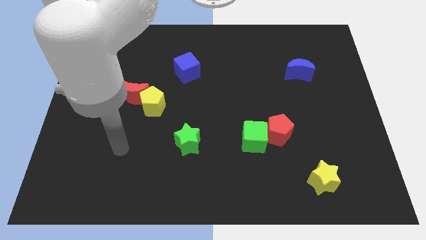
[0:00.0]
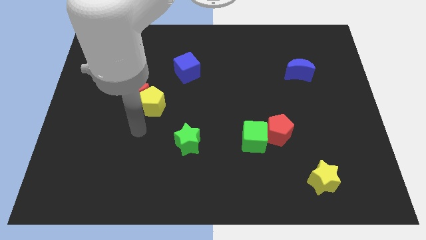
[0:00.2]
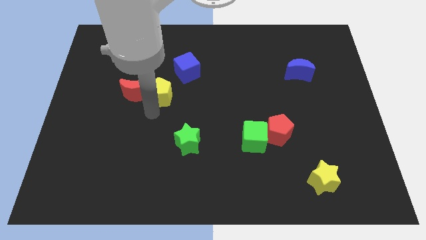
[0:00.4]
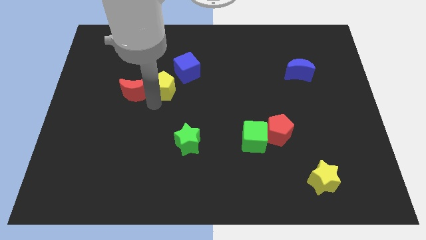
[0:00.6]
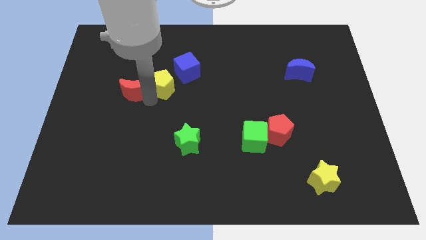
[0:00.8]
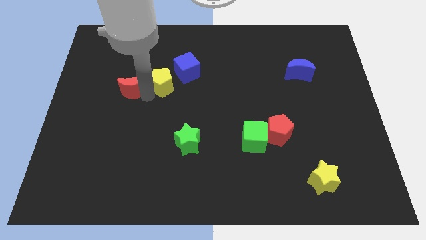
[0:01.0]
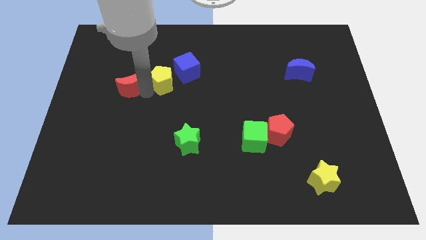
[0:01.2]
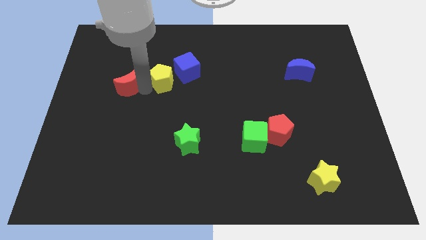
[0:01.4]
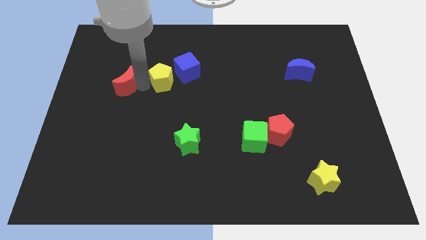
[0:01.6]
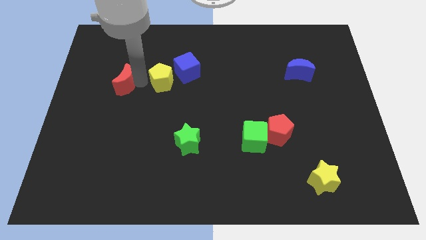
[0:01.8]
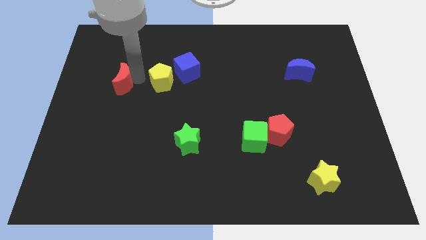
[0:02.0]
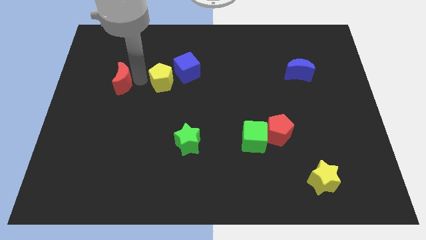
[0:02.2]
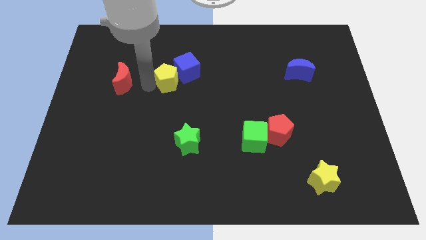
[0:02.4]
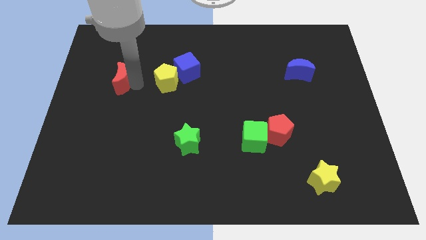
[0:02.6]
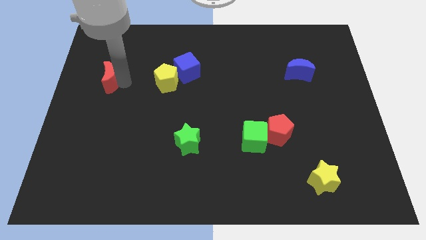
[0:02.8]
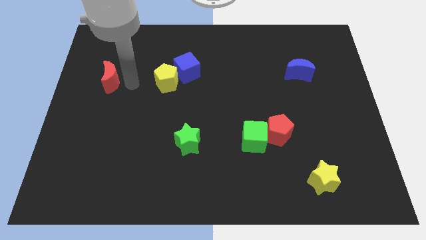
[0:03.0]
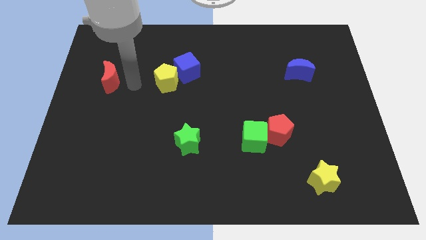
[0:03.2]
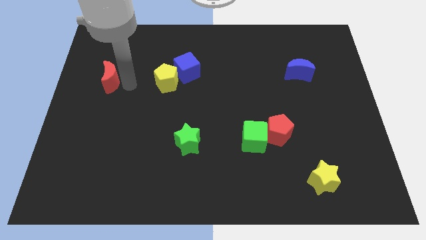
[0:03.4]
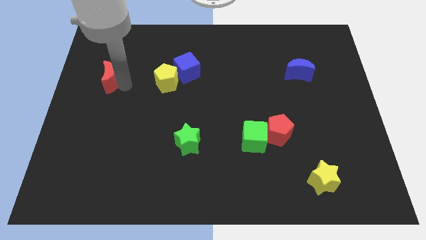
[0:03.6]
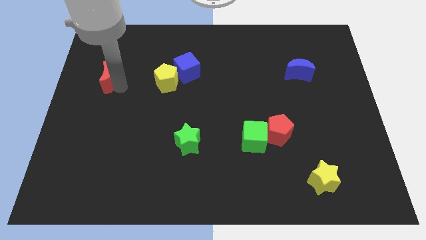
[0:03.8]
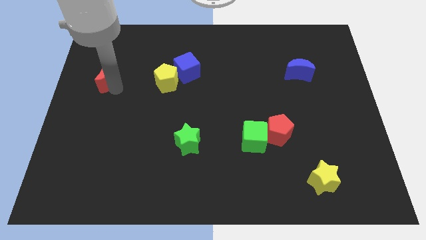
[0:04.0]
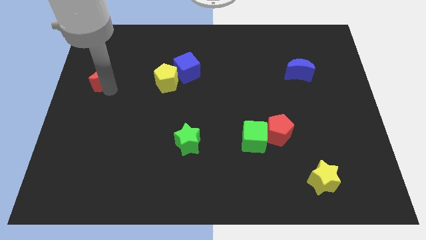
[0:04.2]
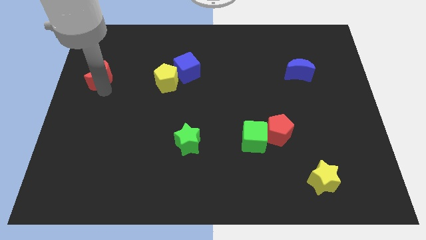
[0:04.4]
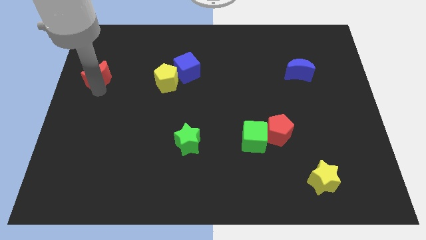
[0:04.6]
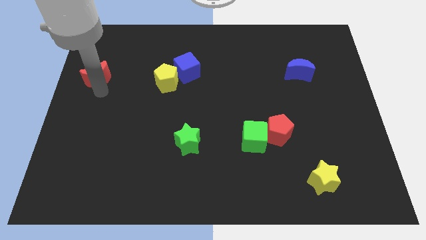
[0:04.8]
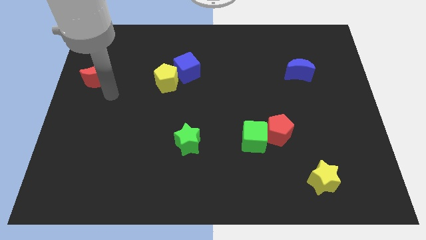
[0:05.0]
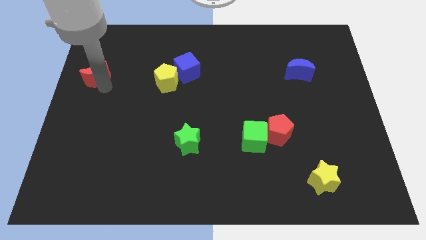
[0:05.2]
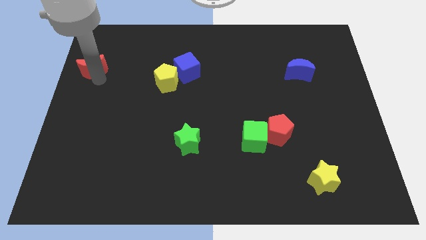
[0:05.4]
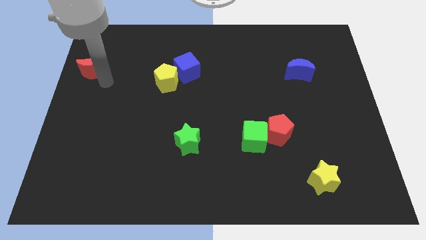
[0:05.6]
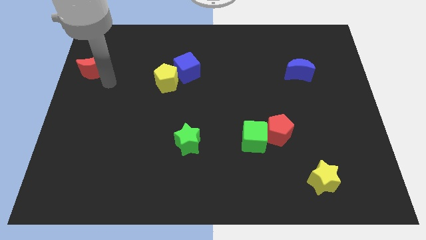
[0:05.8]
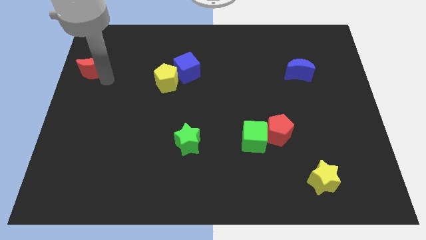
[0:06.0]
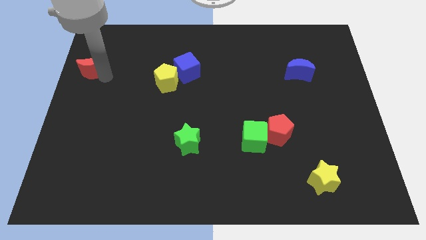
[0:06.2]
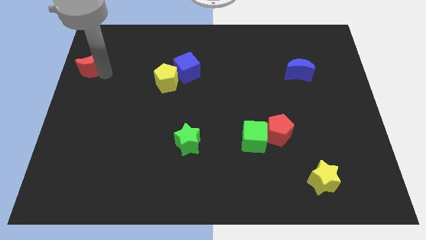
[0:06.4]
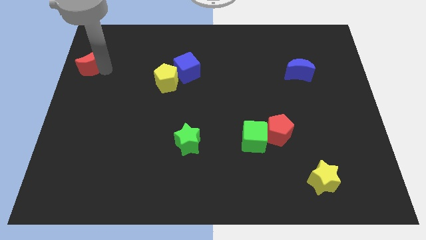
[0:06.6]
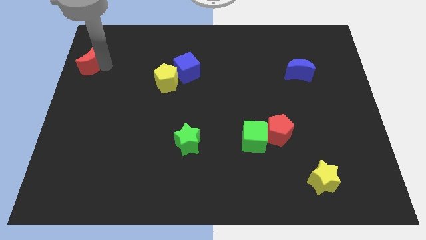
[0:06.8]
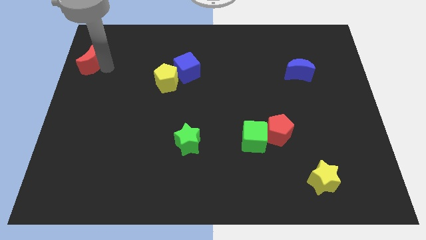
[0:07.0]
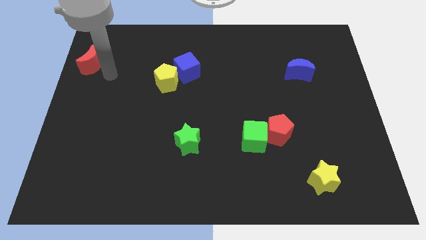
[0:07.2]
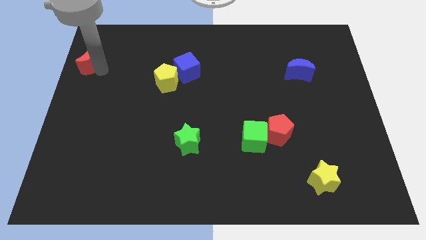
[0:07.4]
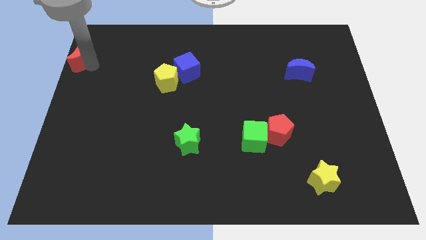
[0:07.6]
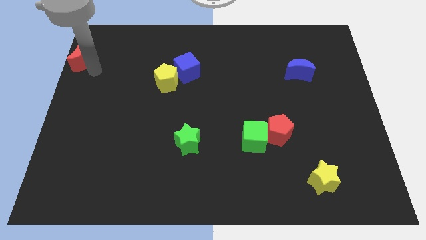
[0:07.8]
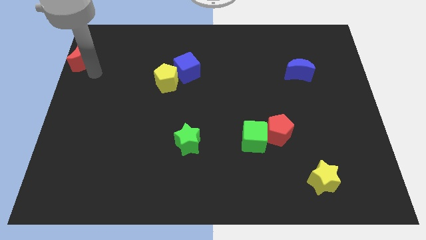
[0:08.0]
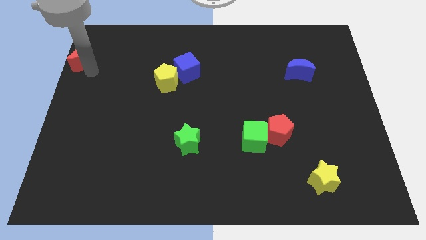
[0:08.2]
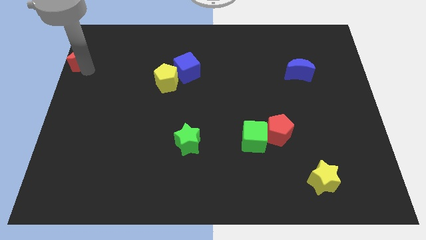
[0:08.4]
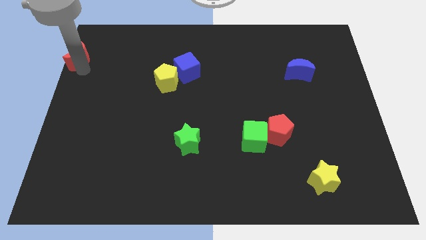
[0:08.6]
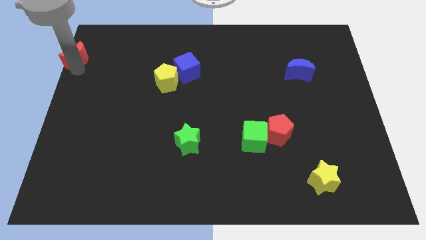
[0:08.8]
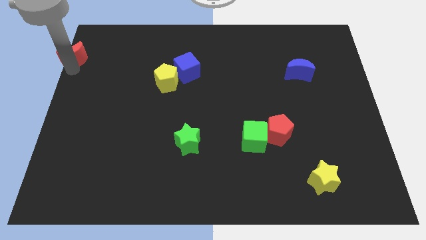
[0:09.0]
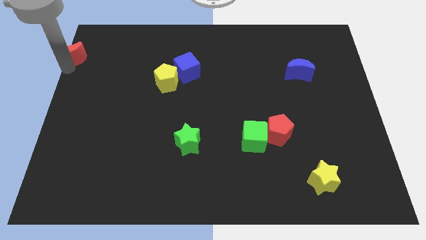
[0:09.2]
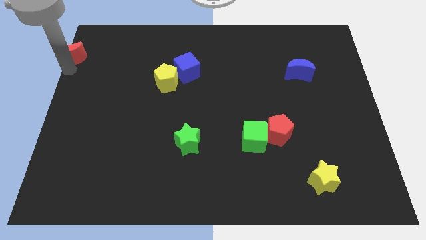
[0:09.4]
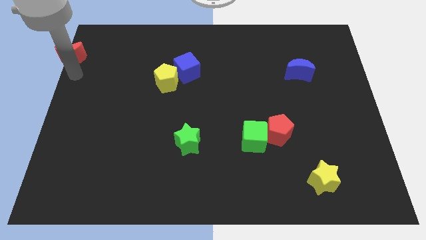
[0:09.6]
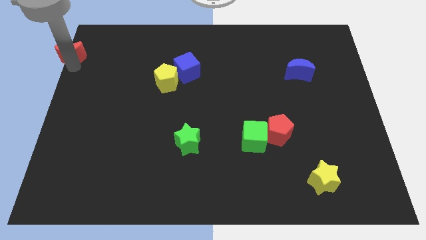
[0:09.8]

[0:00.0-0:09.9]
move the red moon to the top left

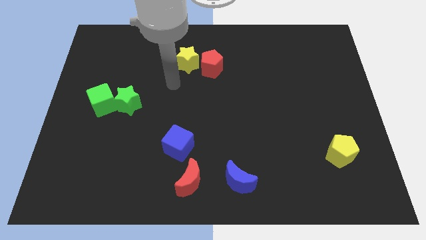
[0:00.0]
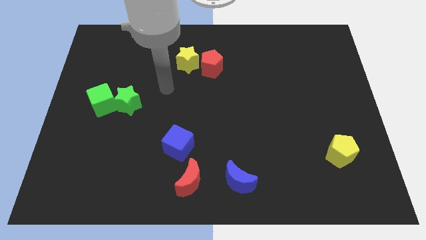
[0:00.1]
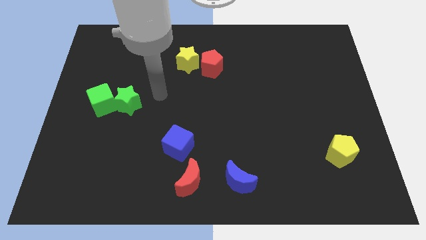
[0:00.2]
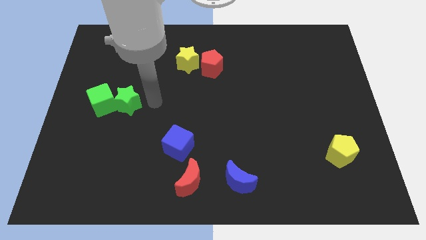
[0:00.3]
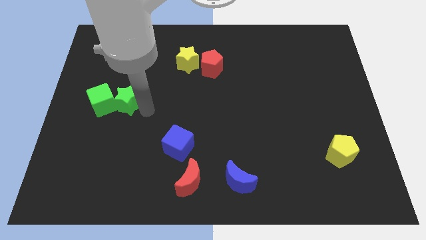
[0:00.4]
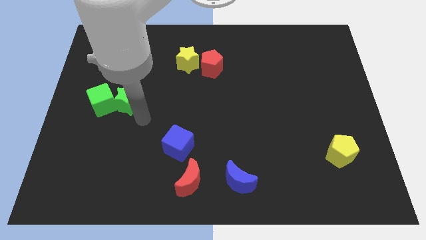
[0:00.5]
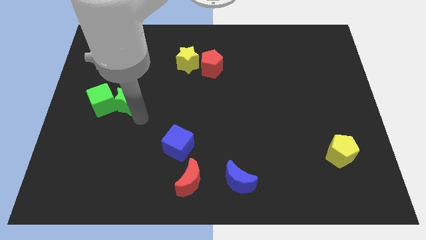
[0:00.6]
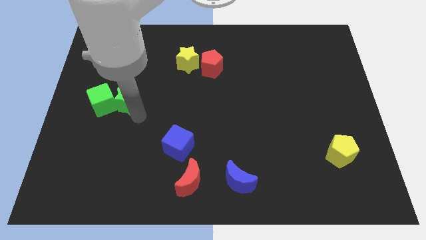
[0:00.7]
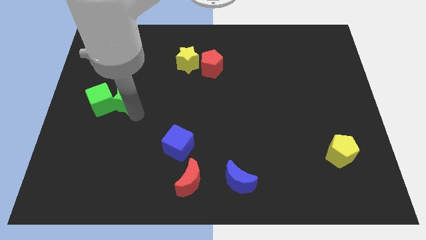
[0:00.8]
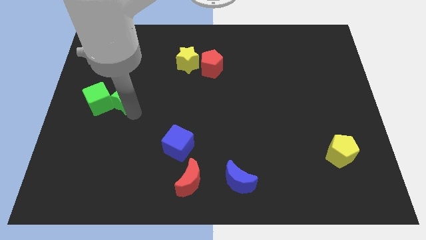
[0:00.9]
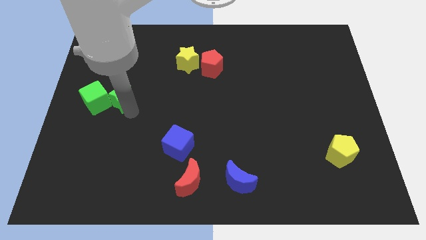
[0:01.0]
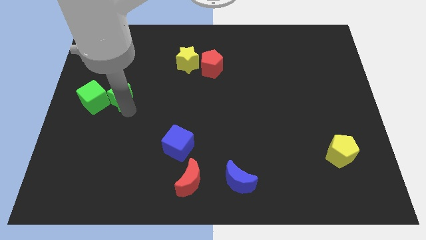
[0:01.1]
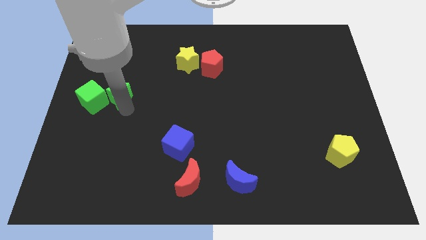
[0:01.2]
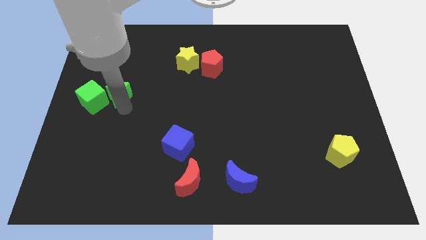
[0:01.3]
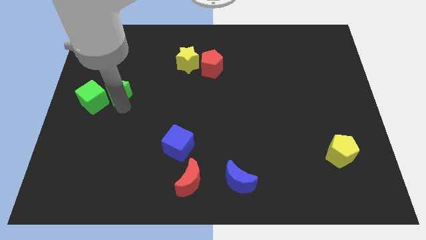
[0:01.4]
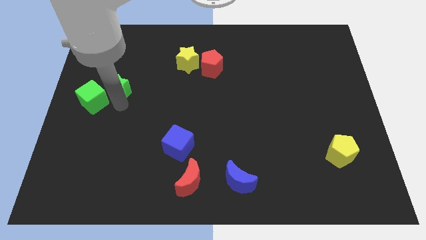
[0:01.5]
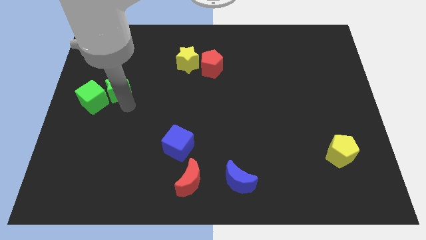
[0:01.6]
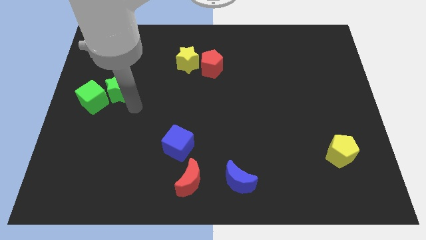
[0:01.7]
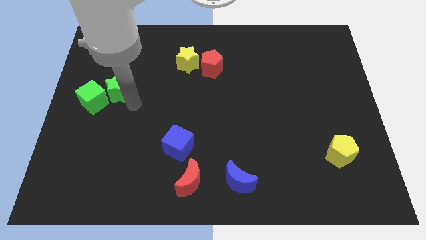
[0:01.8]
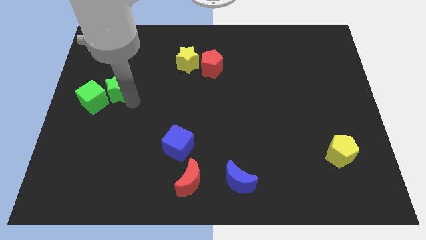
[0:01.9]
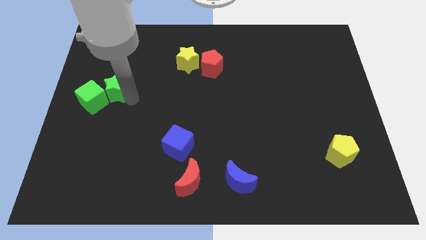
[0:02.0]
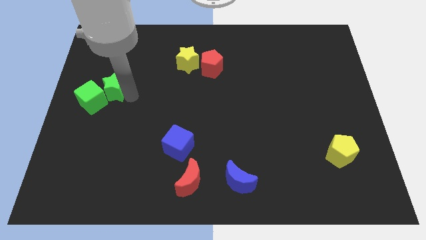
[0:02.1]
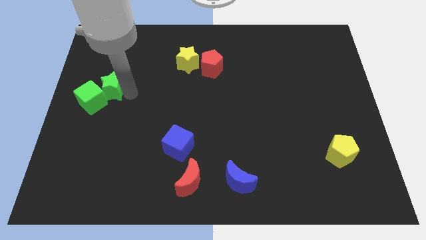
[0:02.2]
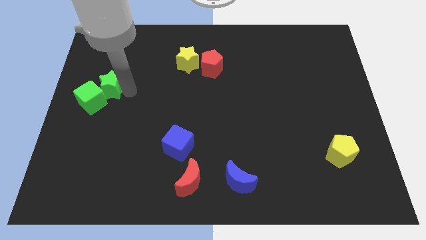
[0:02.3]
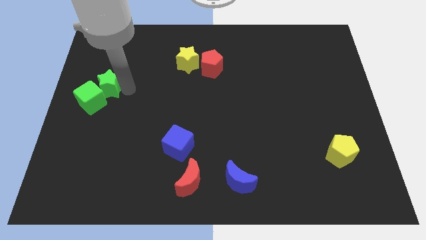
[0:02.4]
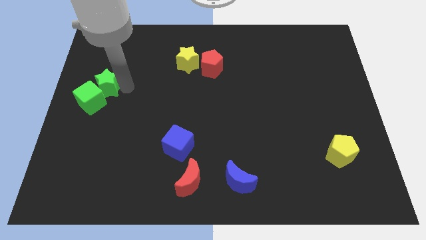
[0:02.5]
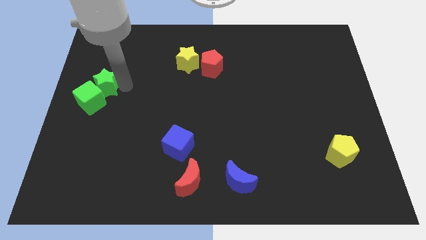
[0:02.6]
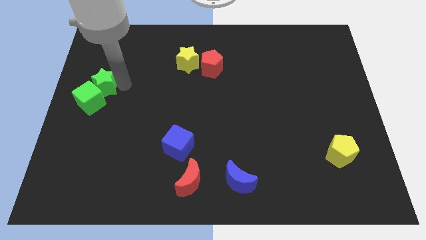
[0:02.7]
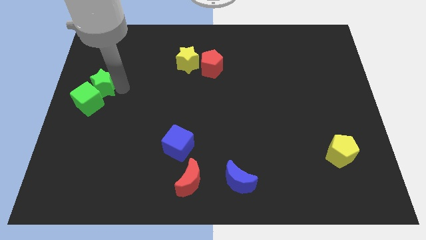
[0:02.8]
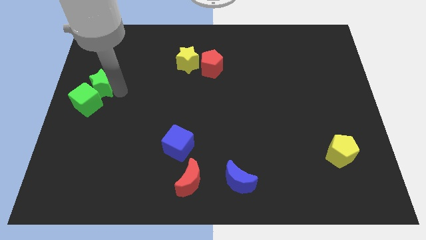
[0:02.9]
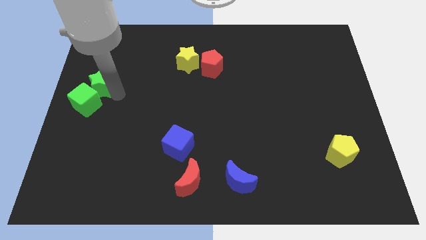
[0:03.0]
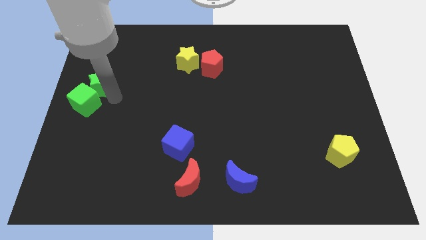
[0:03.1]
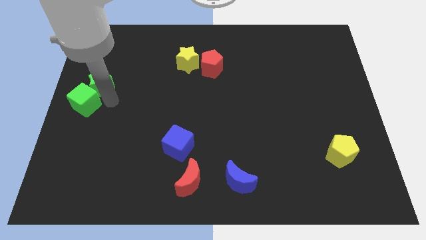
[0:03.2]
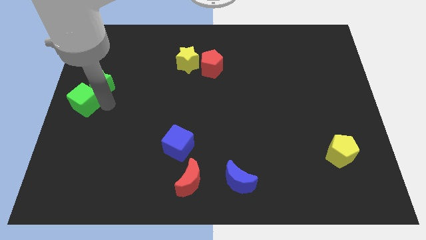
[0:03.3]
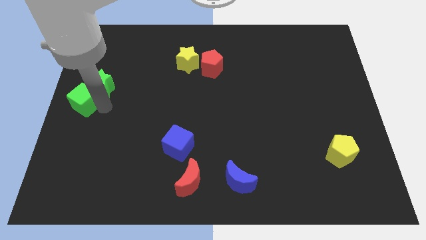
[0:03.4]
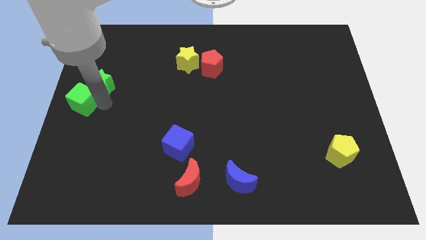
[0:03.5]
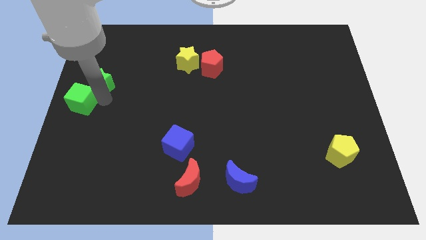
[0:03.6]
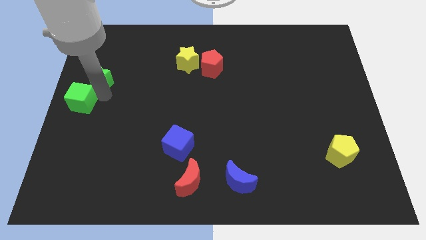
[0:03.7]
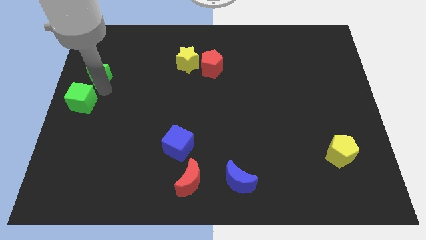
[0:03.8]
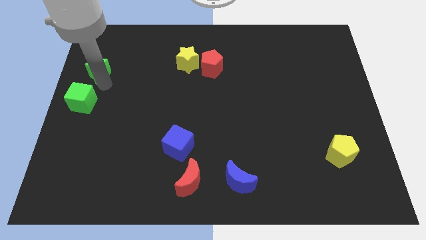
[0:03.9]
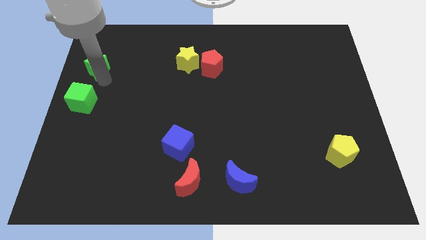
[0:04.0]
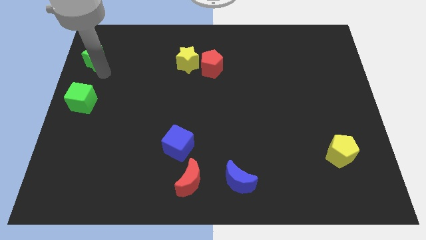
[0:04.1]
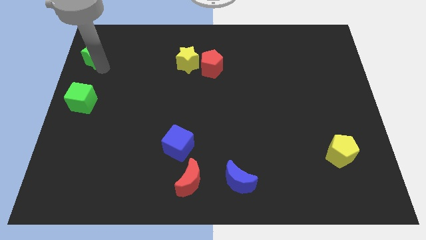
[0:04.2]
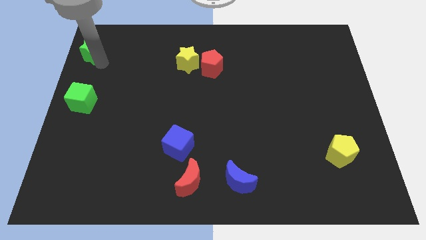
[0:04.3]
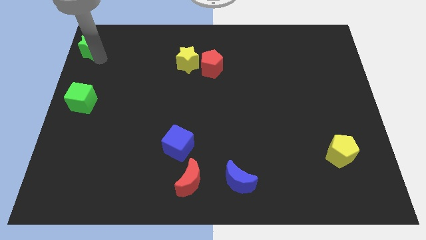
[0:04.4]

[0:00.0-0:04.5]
put the green star to the top left corner
